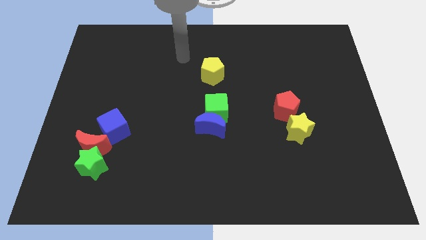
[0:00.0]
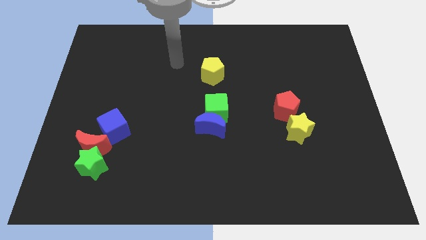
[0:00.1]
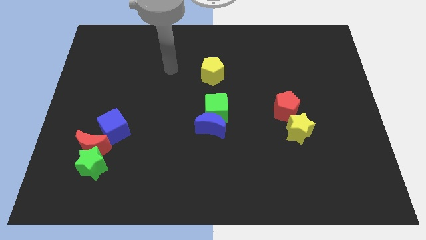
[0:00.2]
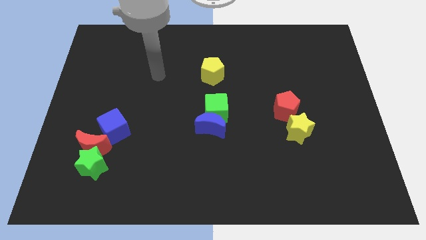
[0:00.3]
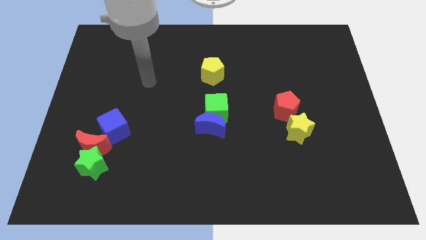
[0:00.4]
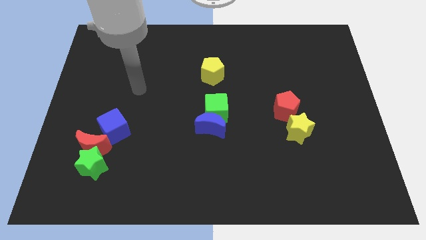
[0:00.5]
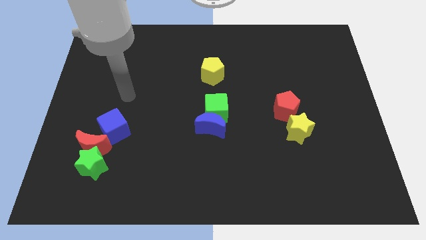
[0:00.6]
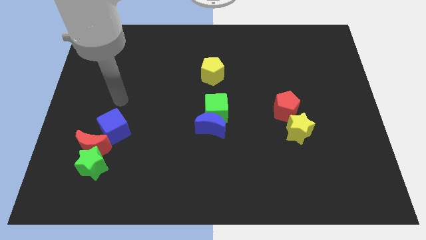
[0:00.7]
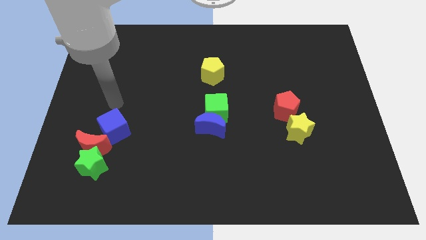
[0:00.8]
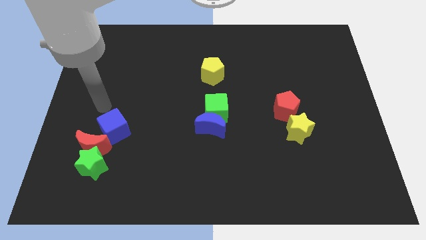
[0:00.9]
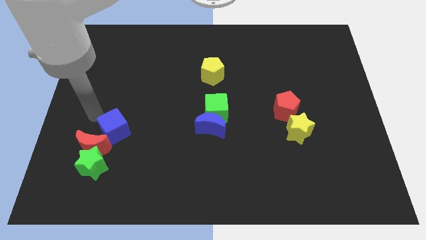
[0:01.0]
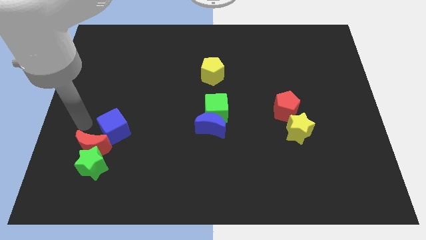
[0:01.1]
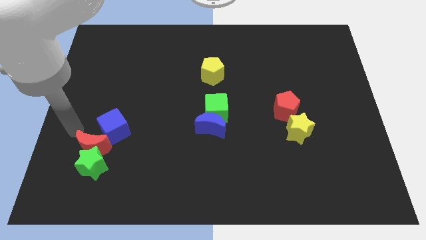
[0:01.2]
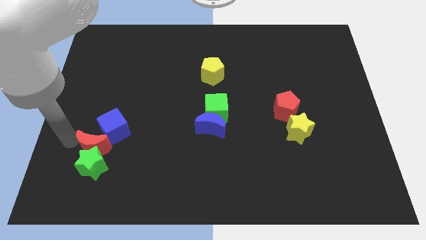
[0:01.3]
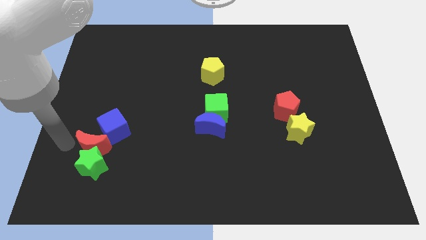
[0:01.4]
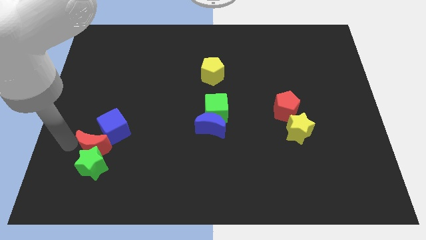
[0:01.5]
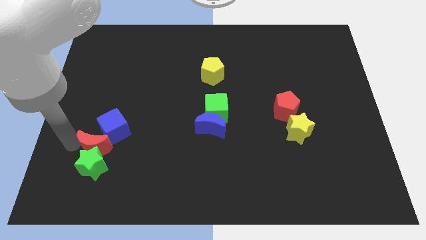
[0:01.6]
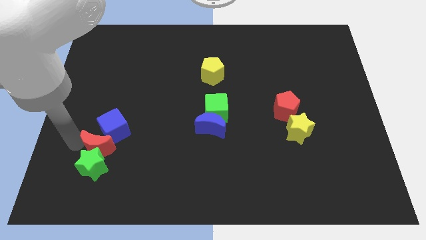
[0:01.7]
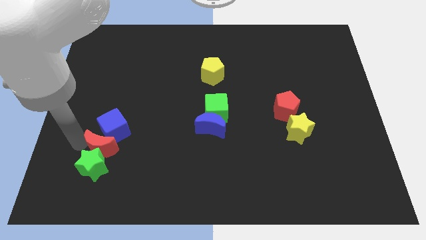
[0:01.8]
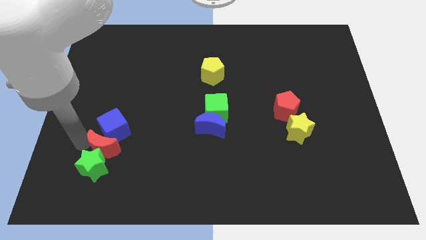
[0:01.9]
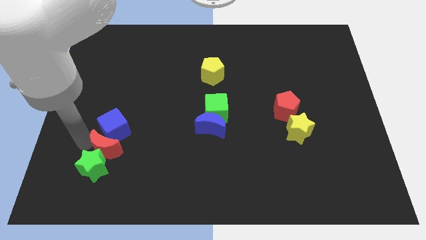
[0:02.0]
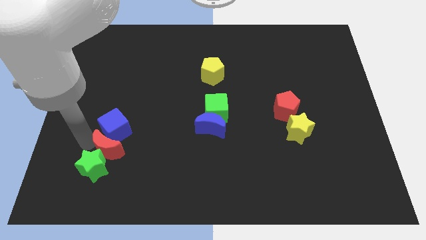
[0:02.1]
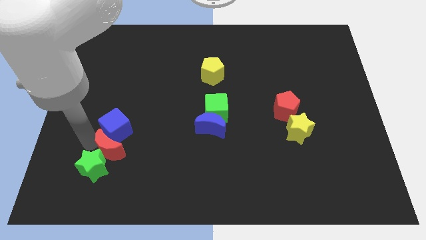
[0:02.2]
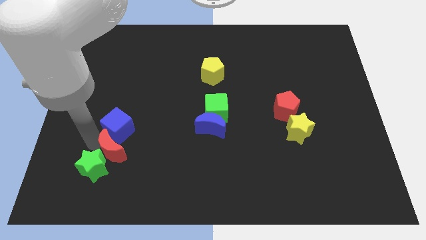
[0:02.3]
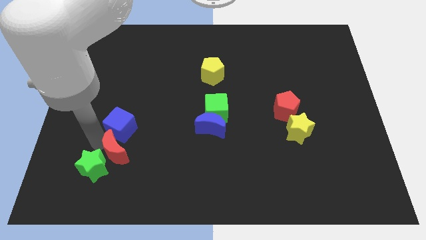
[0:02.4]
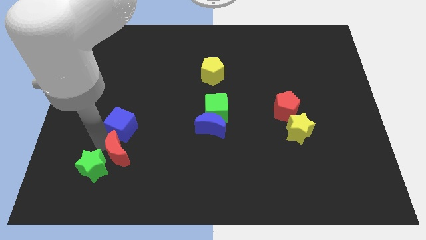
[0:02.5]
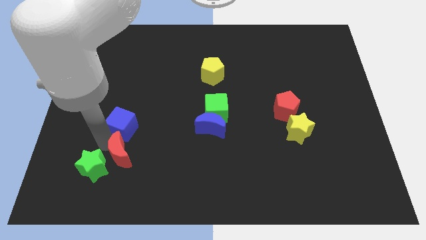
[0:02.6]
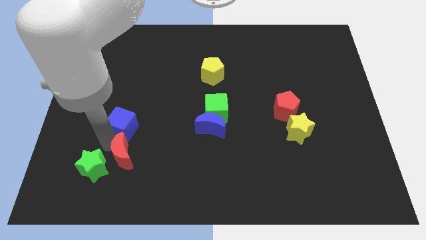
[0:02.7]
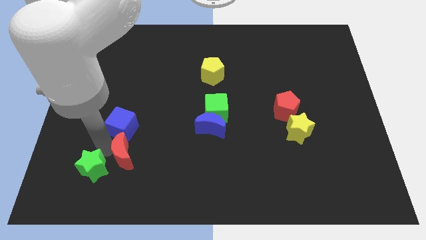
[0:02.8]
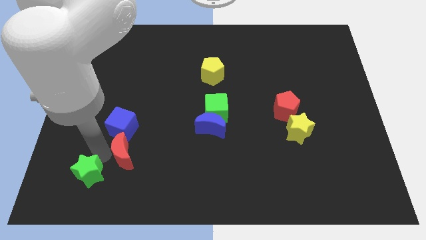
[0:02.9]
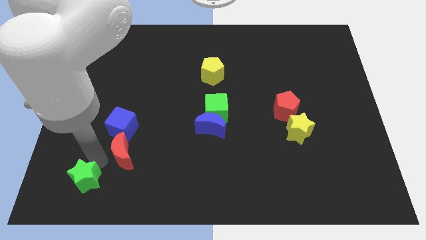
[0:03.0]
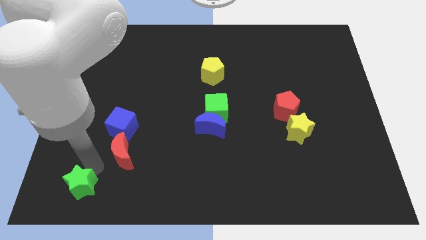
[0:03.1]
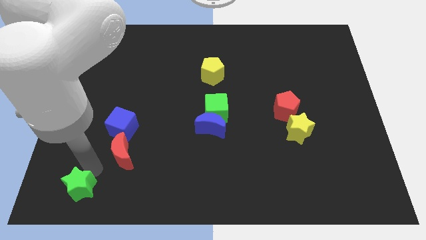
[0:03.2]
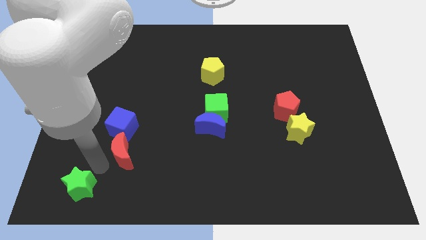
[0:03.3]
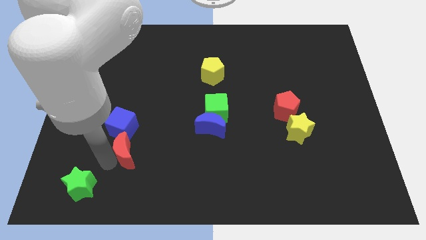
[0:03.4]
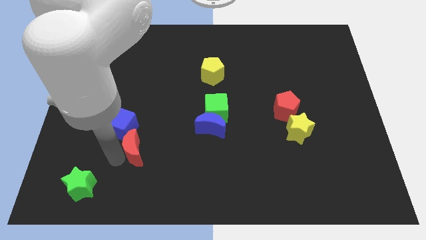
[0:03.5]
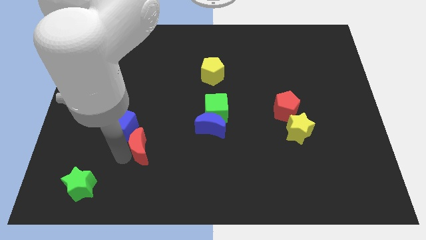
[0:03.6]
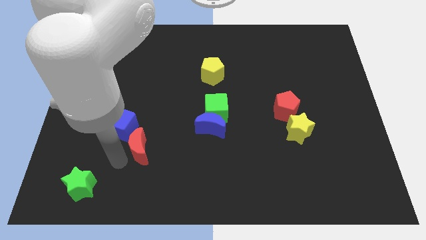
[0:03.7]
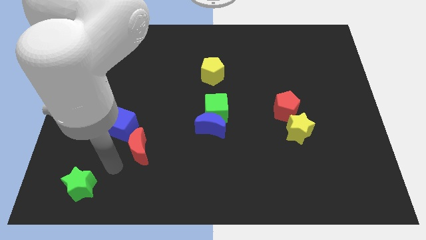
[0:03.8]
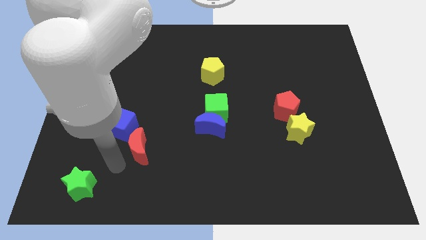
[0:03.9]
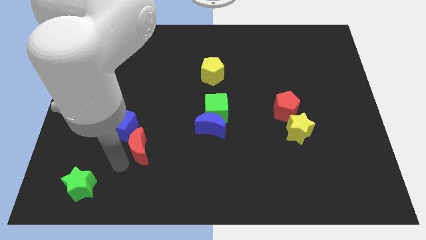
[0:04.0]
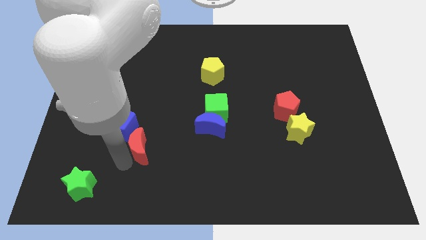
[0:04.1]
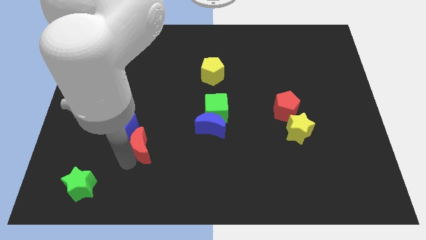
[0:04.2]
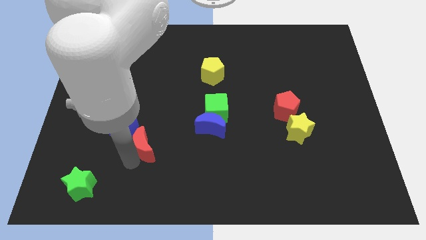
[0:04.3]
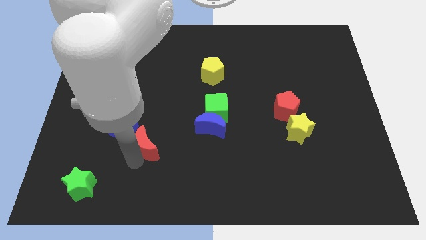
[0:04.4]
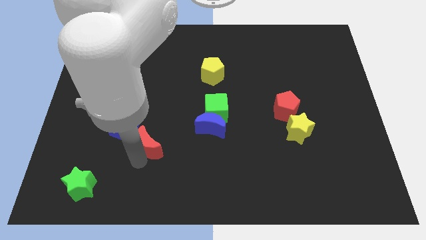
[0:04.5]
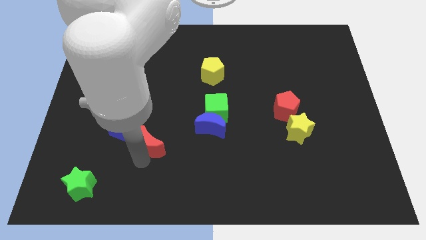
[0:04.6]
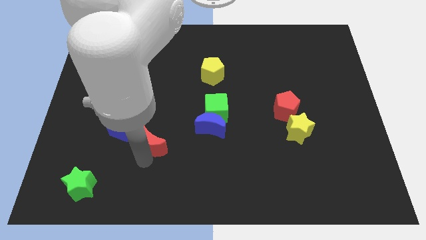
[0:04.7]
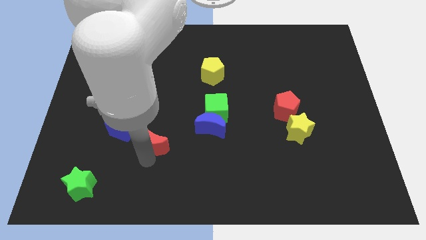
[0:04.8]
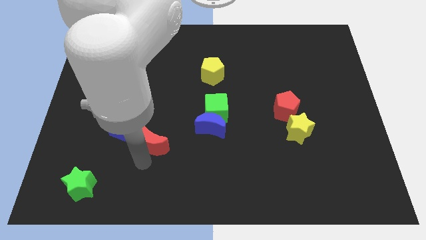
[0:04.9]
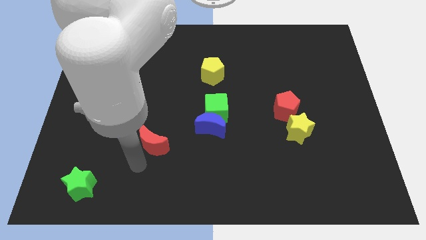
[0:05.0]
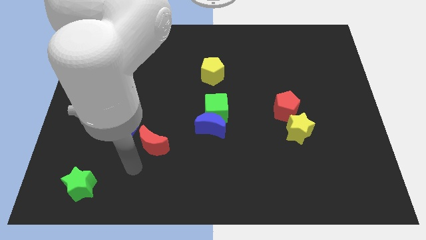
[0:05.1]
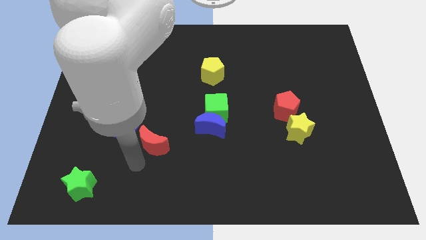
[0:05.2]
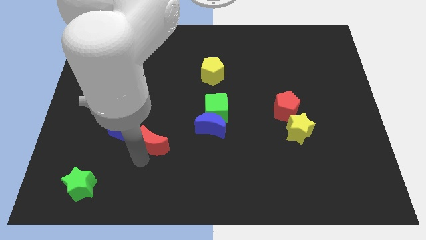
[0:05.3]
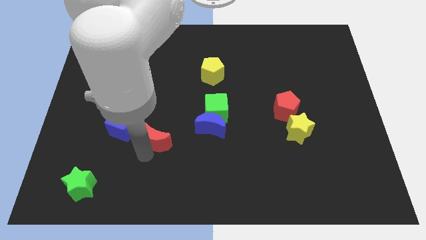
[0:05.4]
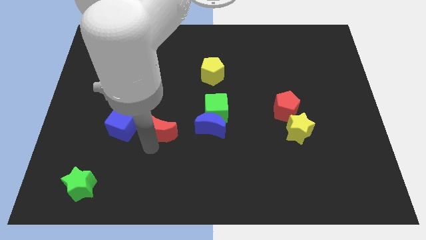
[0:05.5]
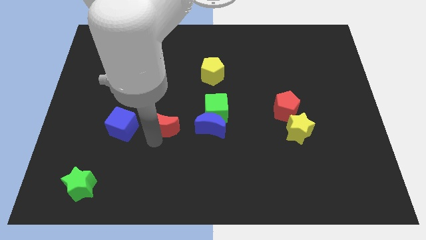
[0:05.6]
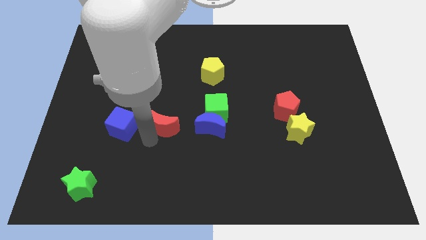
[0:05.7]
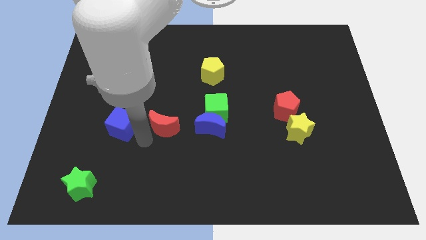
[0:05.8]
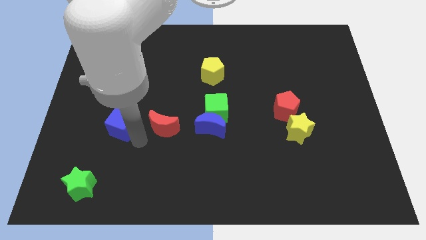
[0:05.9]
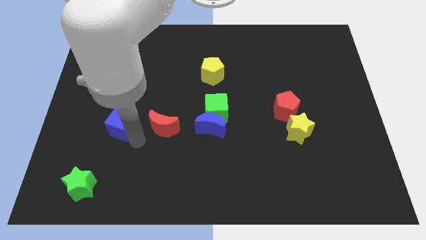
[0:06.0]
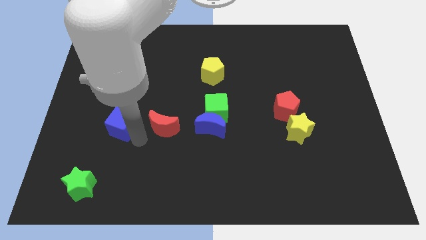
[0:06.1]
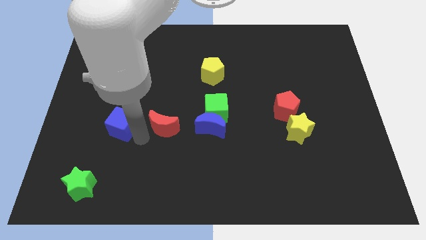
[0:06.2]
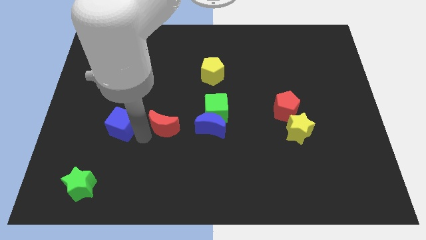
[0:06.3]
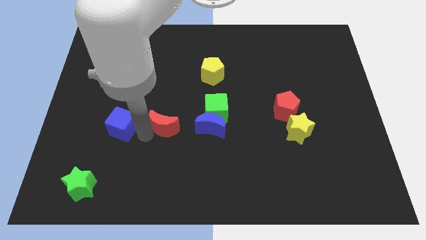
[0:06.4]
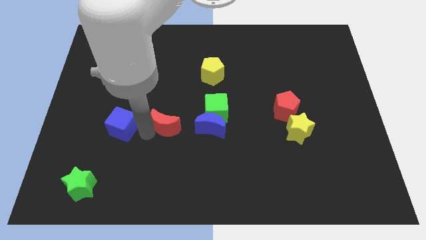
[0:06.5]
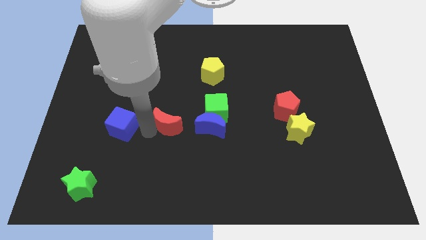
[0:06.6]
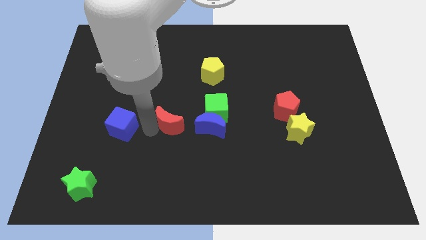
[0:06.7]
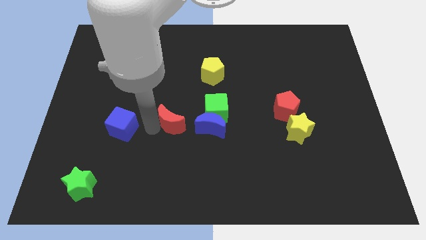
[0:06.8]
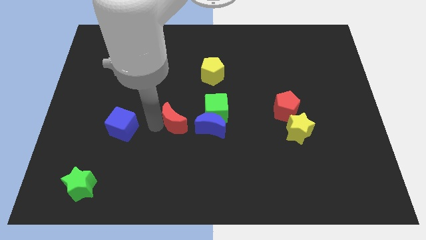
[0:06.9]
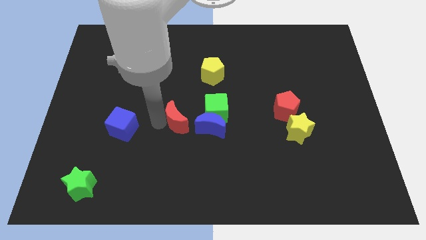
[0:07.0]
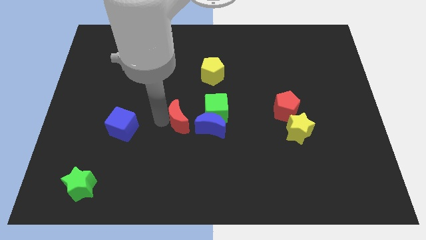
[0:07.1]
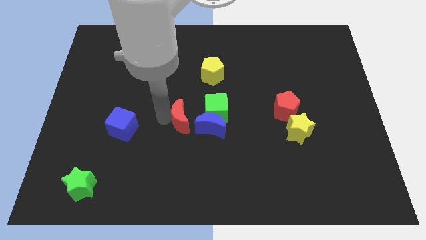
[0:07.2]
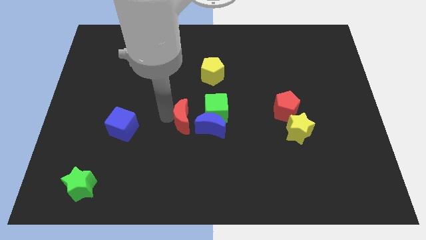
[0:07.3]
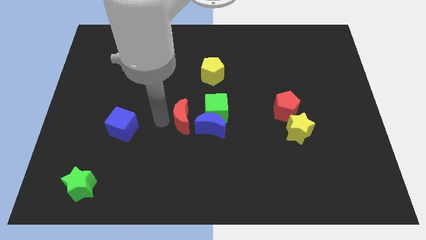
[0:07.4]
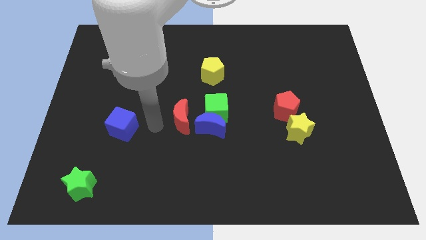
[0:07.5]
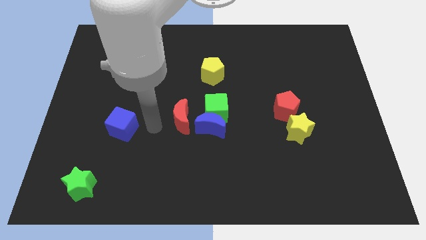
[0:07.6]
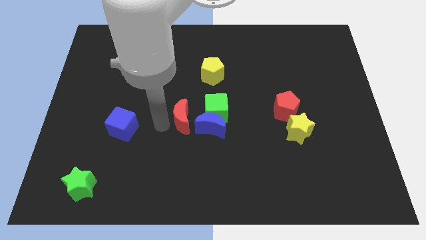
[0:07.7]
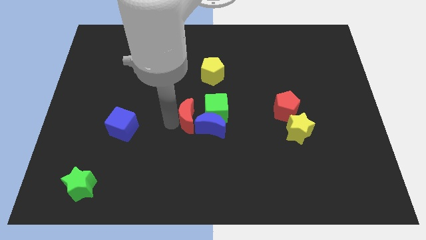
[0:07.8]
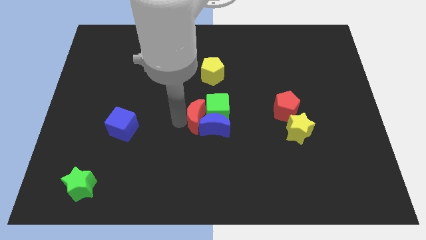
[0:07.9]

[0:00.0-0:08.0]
put the red moon next to the green cube
